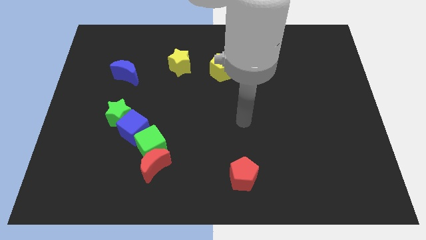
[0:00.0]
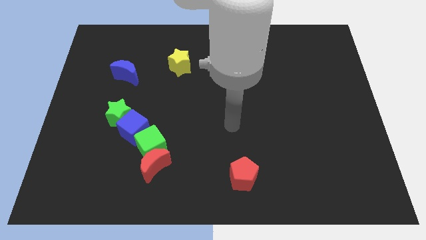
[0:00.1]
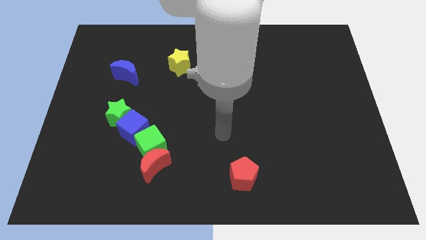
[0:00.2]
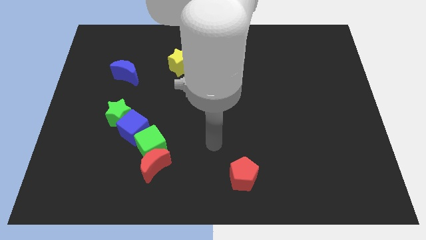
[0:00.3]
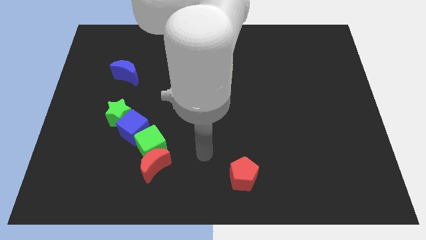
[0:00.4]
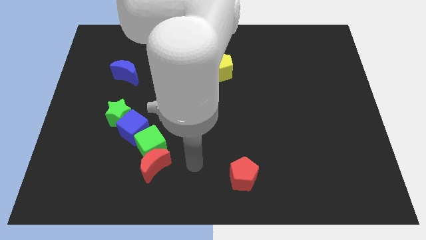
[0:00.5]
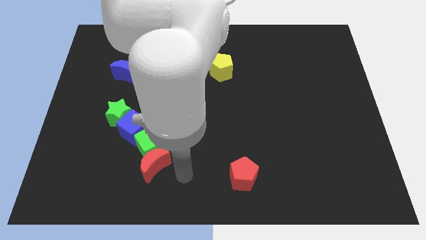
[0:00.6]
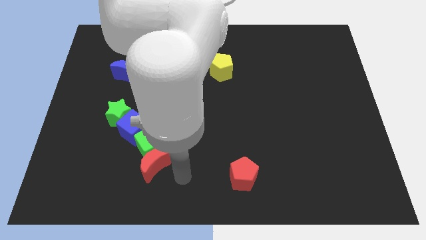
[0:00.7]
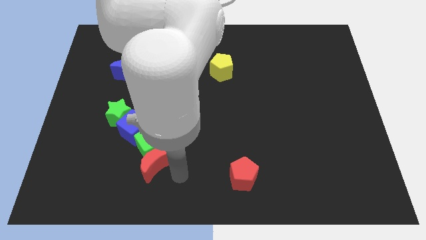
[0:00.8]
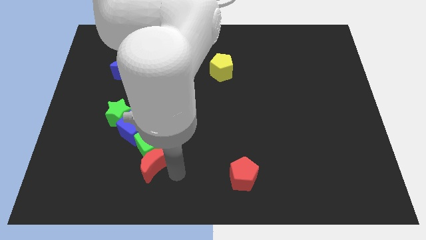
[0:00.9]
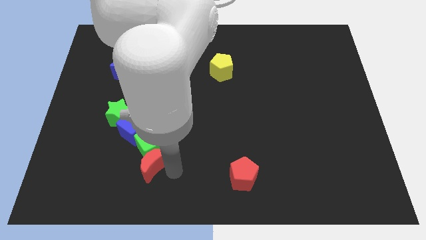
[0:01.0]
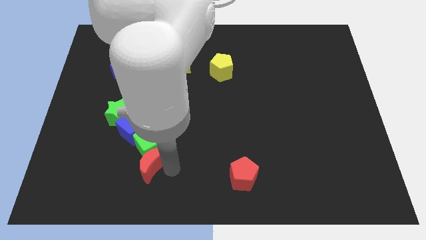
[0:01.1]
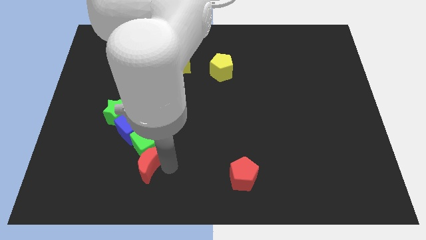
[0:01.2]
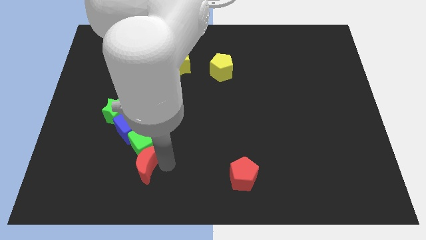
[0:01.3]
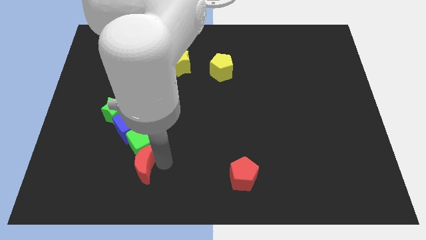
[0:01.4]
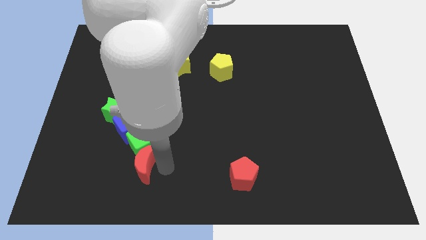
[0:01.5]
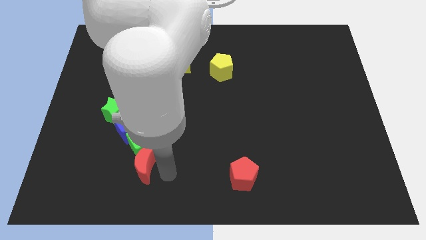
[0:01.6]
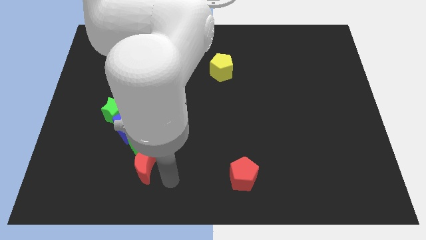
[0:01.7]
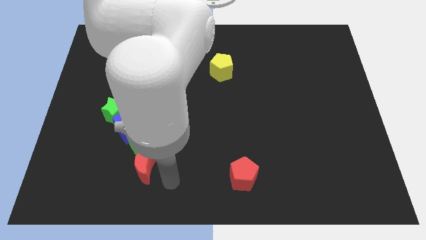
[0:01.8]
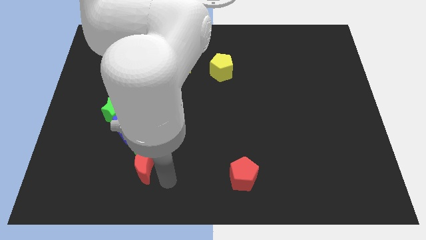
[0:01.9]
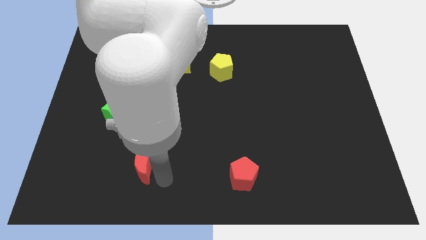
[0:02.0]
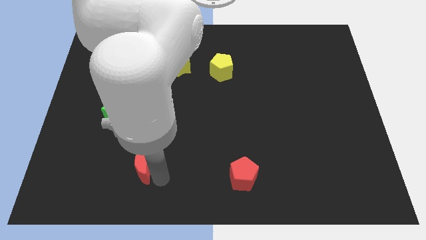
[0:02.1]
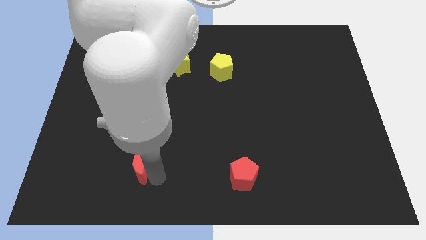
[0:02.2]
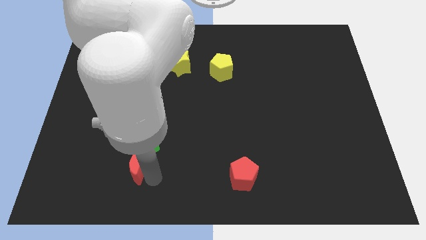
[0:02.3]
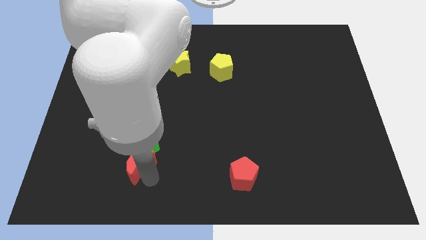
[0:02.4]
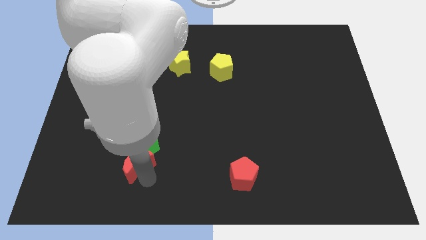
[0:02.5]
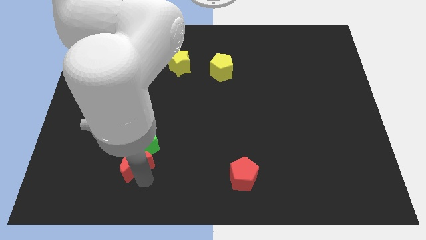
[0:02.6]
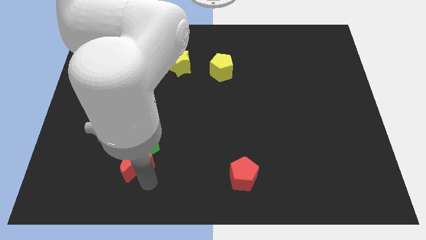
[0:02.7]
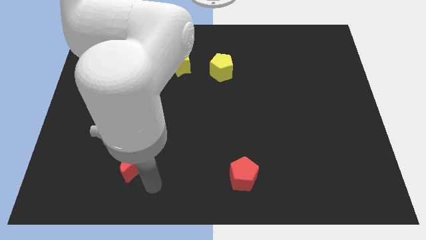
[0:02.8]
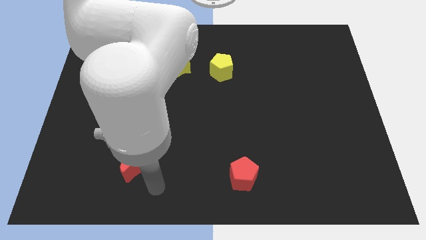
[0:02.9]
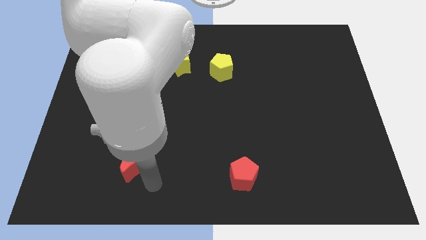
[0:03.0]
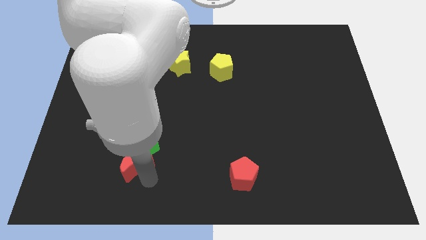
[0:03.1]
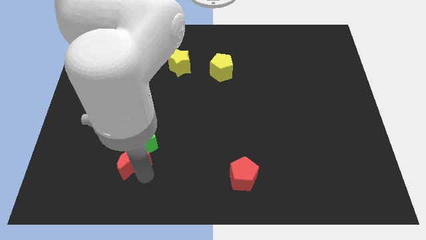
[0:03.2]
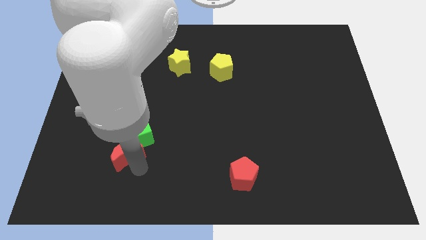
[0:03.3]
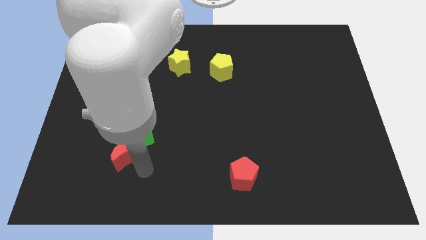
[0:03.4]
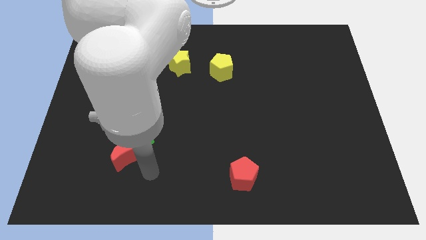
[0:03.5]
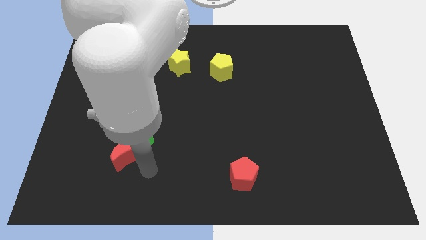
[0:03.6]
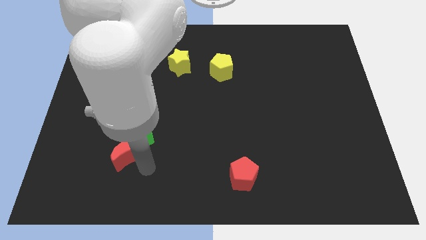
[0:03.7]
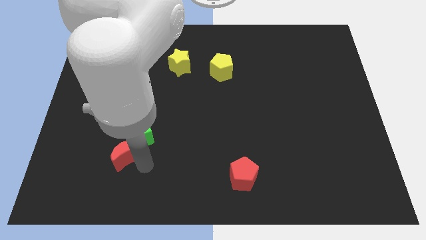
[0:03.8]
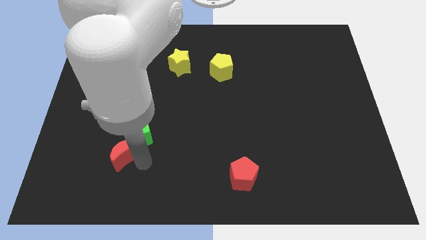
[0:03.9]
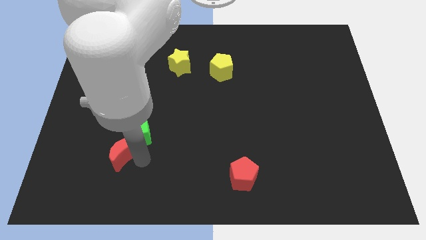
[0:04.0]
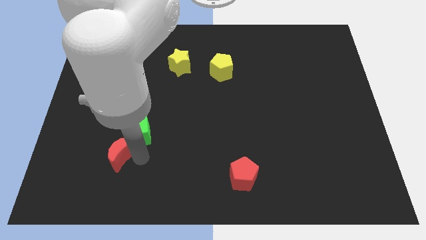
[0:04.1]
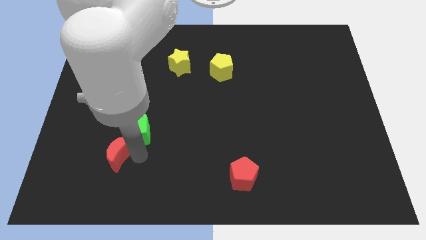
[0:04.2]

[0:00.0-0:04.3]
slide the red moon up and to the left diagonally a bit

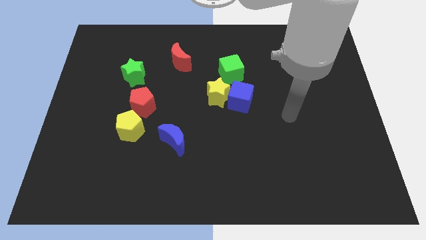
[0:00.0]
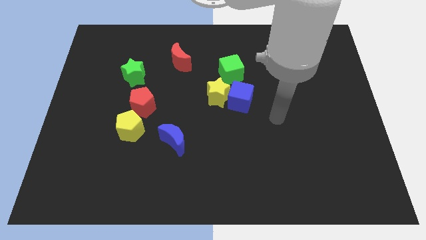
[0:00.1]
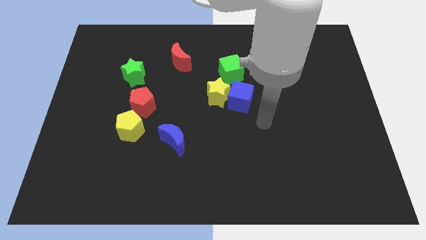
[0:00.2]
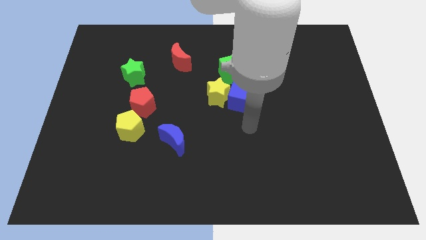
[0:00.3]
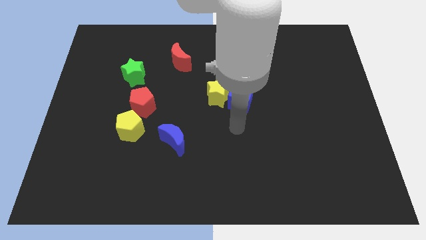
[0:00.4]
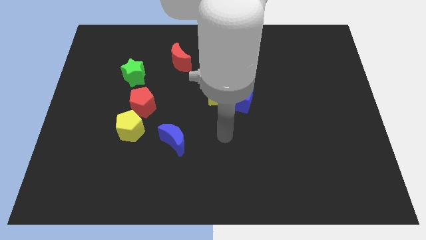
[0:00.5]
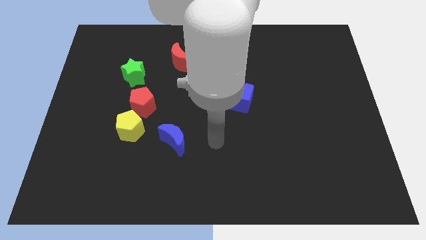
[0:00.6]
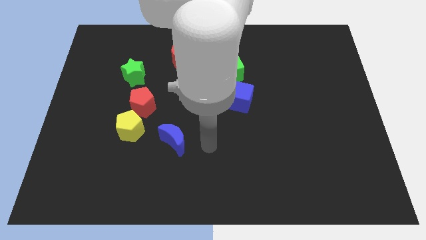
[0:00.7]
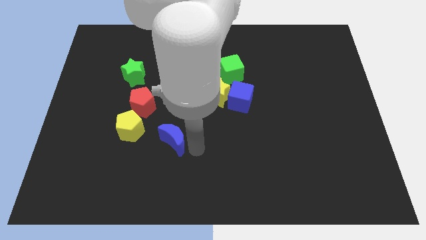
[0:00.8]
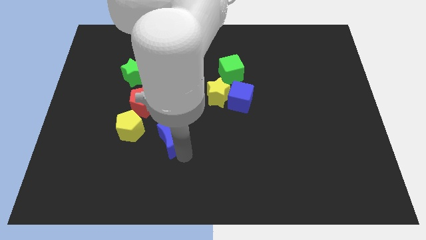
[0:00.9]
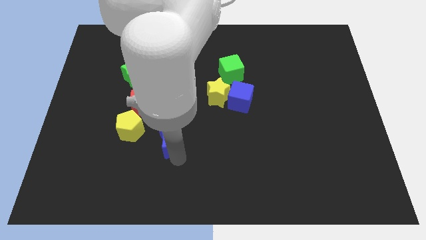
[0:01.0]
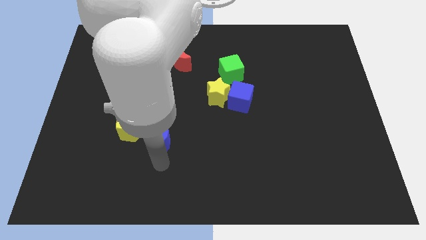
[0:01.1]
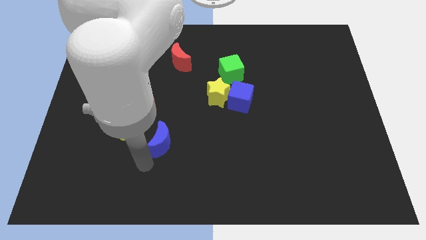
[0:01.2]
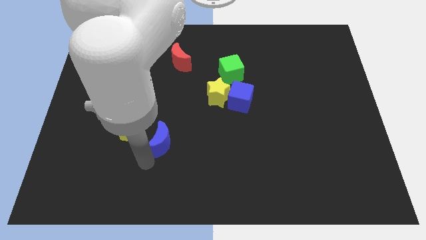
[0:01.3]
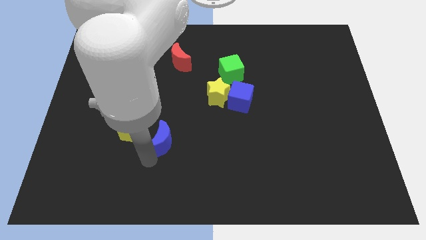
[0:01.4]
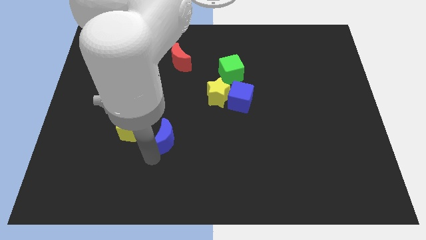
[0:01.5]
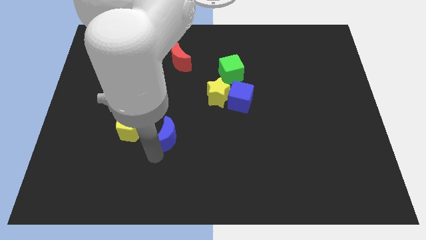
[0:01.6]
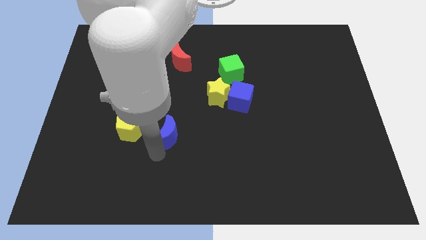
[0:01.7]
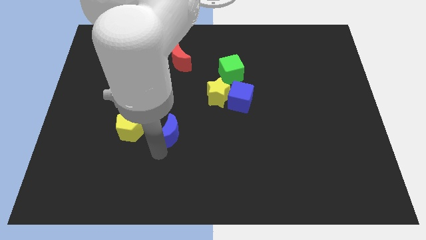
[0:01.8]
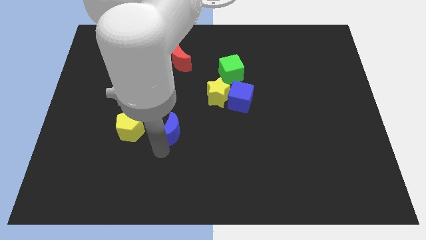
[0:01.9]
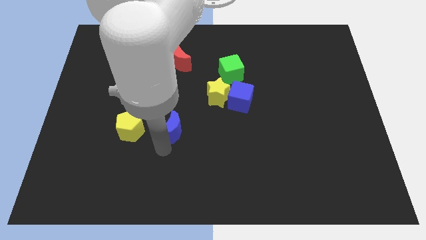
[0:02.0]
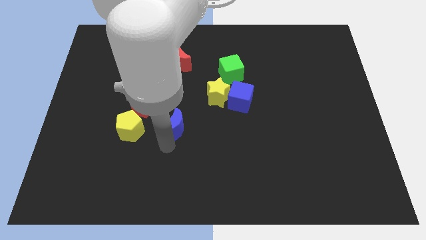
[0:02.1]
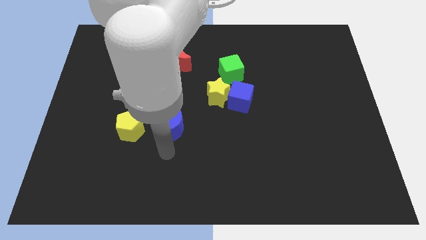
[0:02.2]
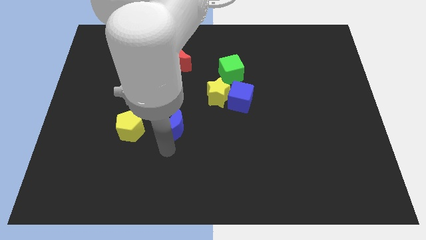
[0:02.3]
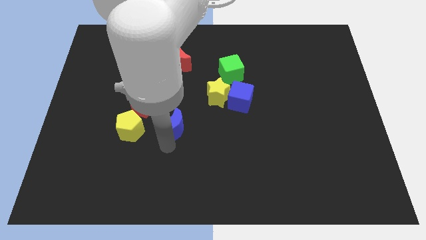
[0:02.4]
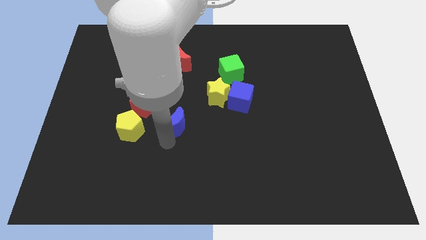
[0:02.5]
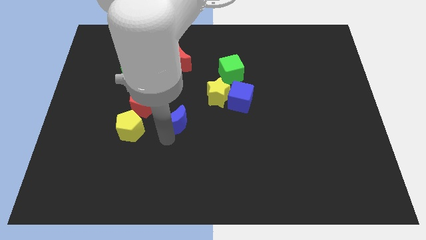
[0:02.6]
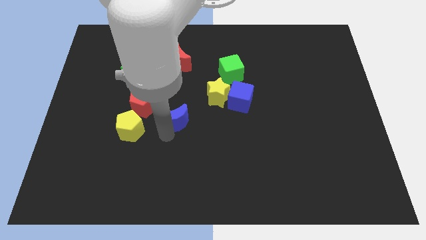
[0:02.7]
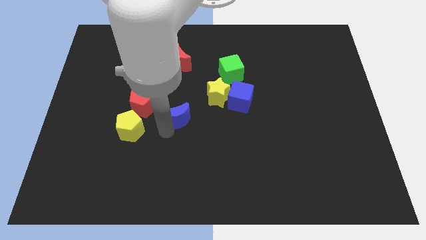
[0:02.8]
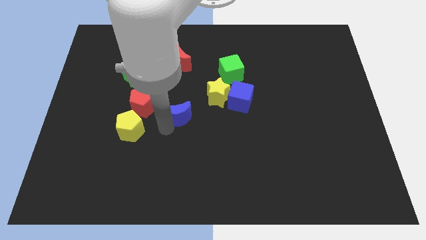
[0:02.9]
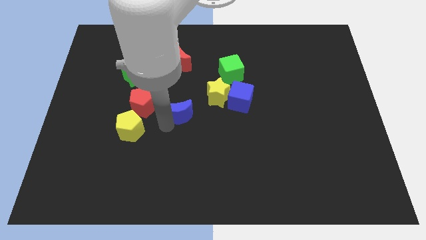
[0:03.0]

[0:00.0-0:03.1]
slightly push the blue moon up

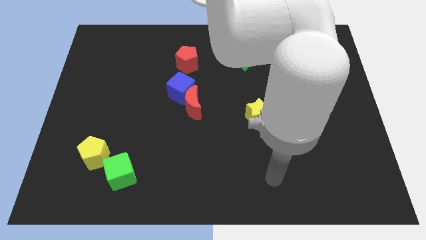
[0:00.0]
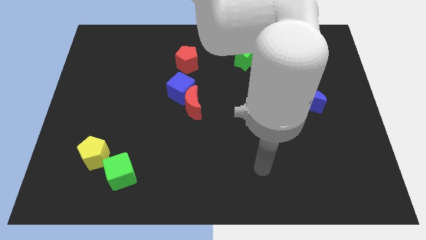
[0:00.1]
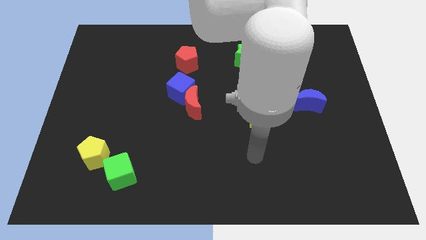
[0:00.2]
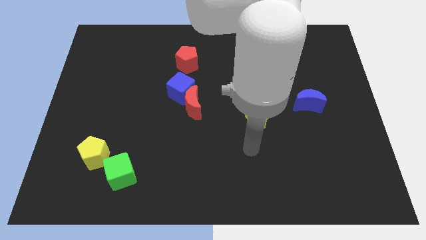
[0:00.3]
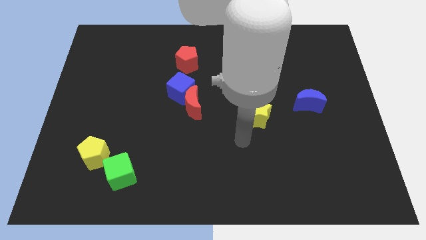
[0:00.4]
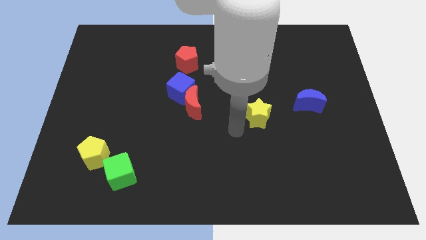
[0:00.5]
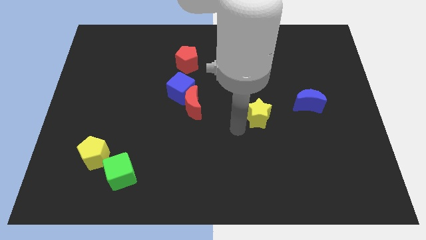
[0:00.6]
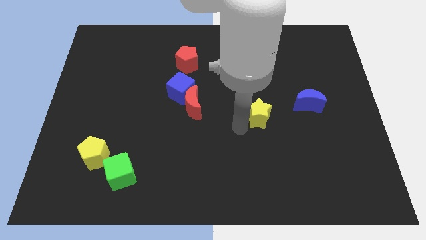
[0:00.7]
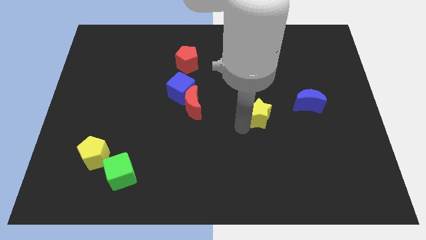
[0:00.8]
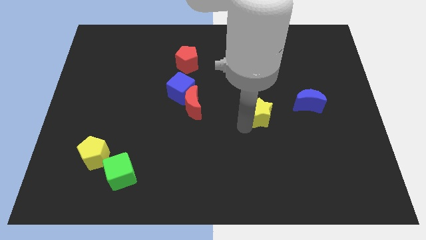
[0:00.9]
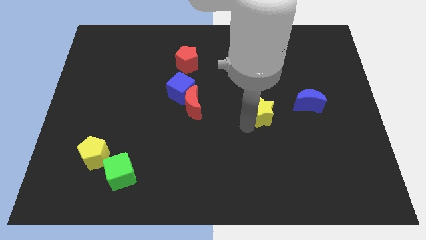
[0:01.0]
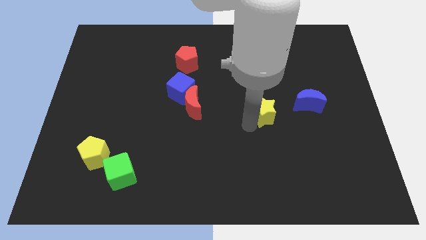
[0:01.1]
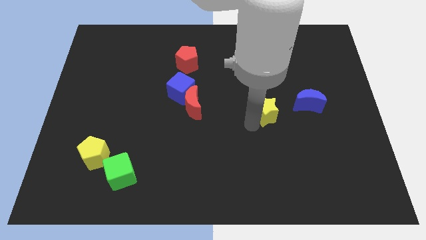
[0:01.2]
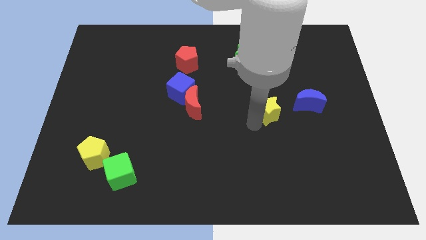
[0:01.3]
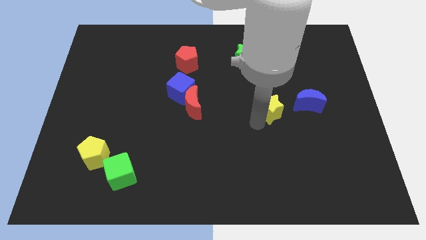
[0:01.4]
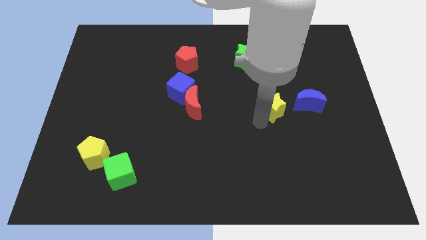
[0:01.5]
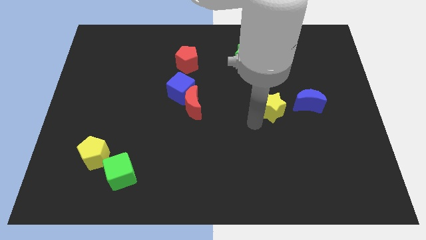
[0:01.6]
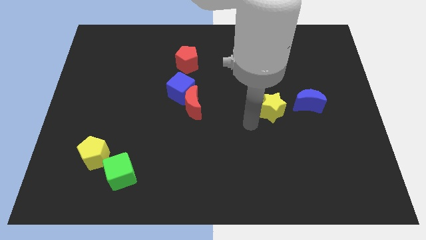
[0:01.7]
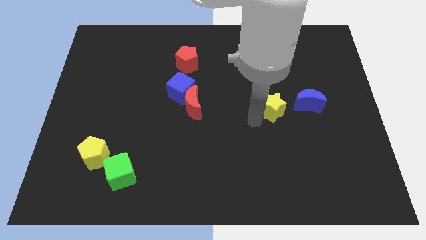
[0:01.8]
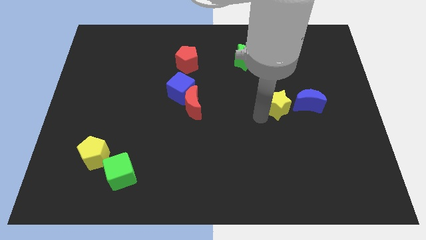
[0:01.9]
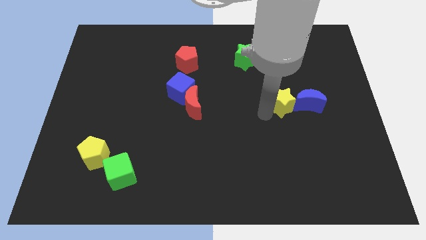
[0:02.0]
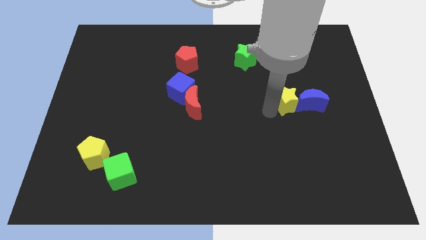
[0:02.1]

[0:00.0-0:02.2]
move the yellow star slightly up and then right
